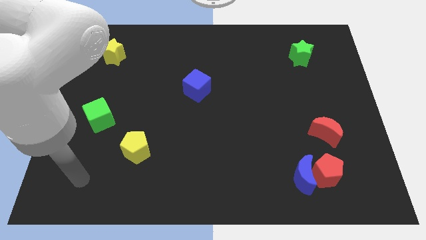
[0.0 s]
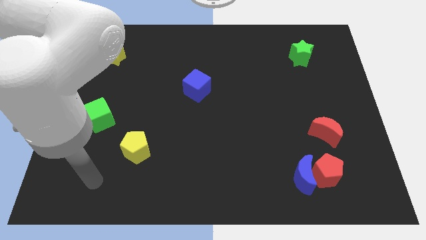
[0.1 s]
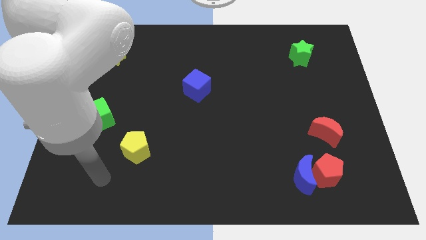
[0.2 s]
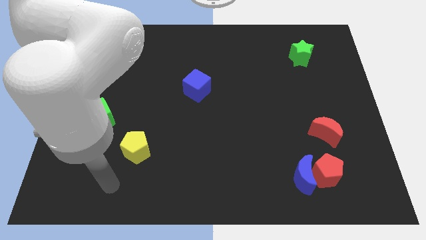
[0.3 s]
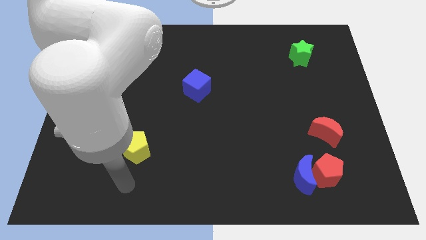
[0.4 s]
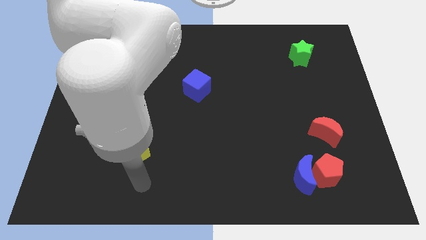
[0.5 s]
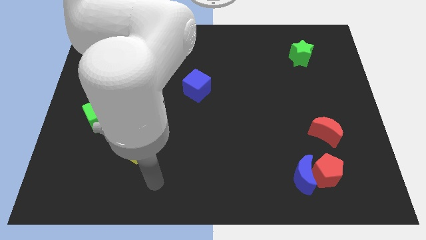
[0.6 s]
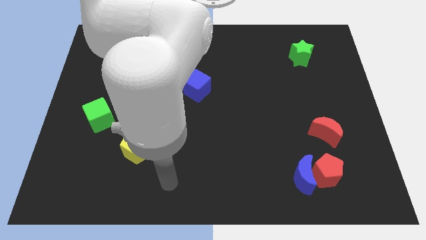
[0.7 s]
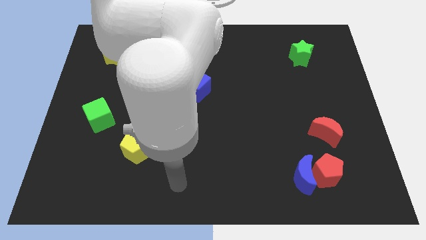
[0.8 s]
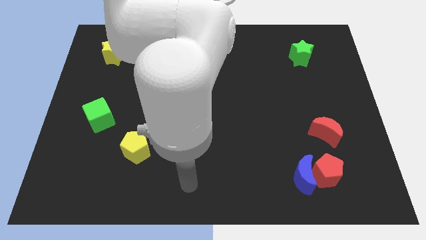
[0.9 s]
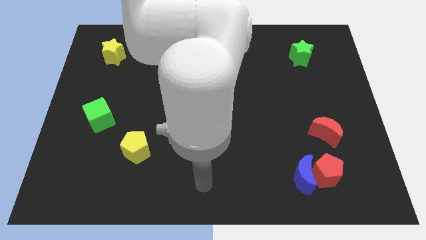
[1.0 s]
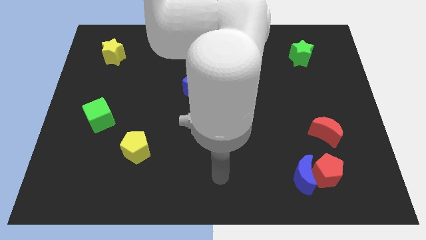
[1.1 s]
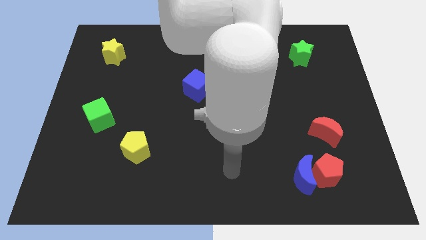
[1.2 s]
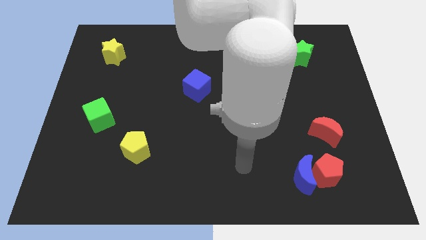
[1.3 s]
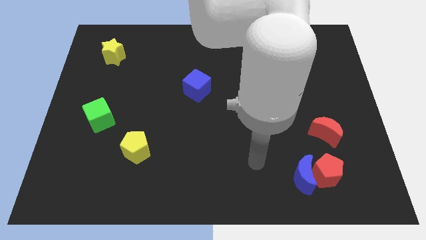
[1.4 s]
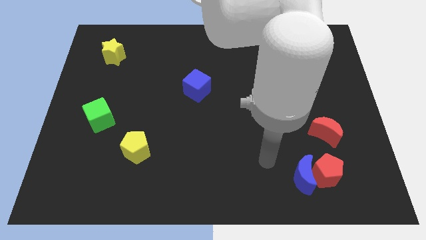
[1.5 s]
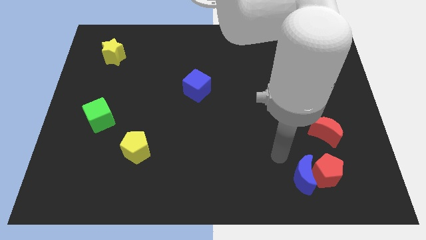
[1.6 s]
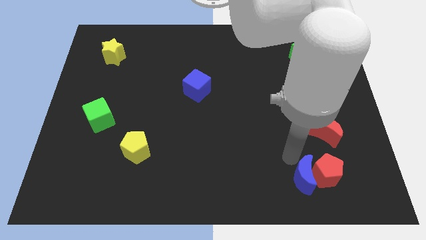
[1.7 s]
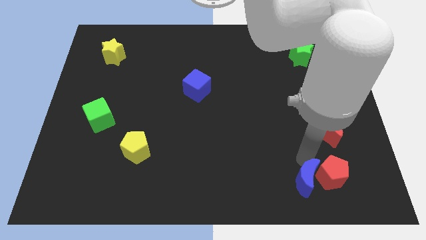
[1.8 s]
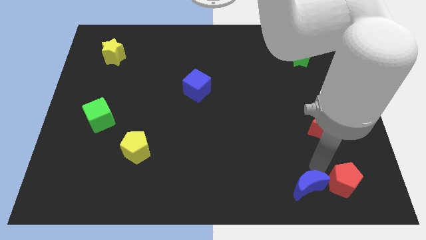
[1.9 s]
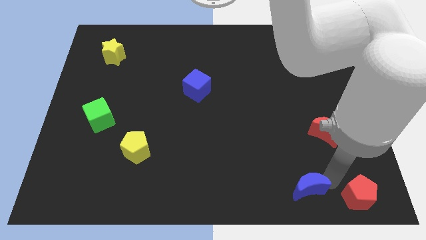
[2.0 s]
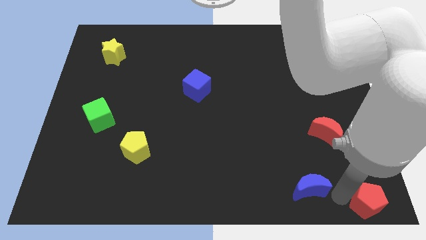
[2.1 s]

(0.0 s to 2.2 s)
separate the blue moon from the red pentagon

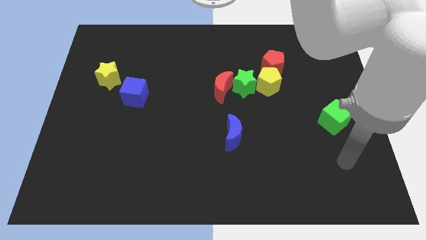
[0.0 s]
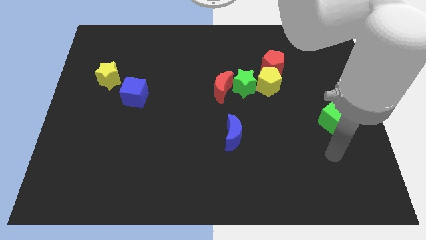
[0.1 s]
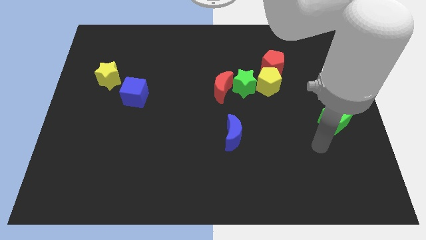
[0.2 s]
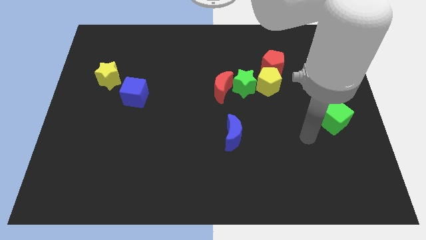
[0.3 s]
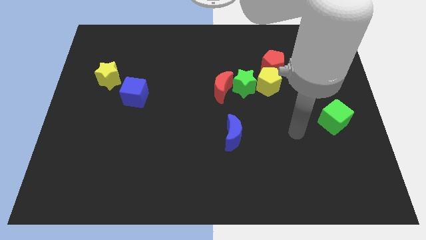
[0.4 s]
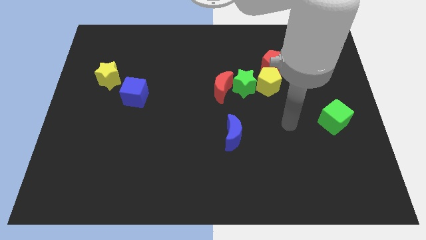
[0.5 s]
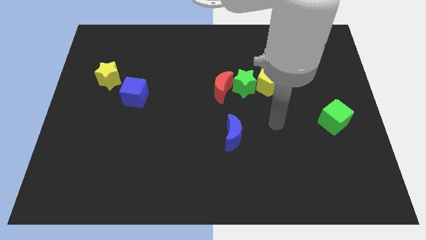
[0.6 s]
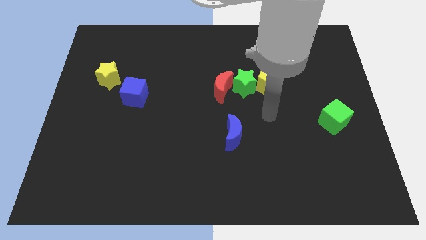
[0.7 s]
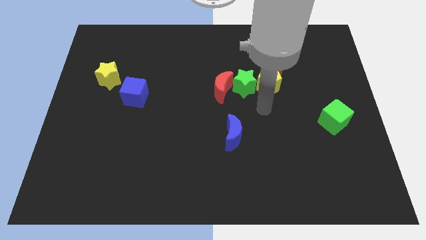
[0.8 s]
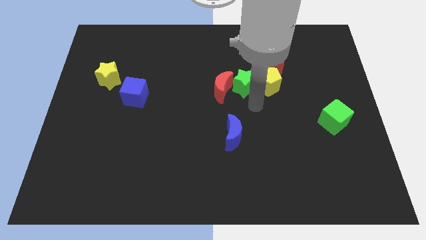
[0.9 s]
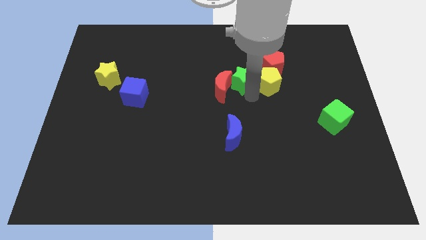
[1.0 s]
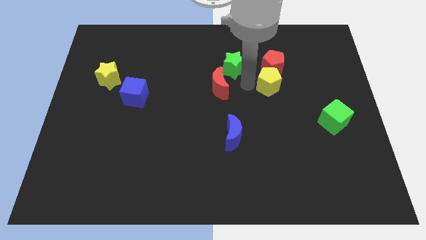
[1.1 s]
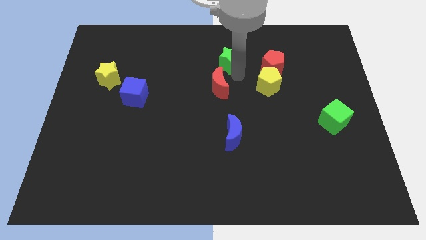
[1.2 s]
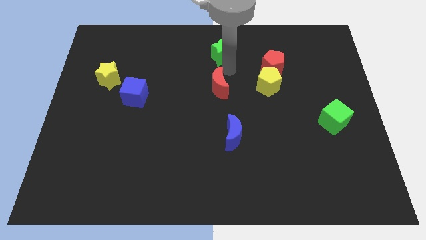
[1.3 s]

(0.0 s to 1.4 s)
pull the red moon apart from the green star

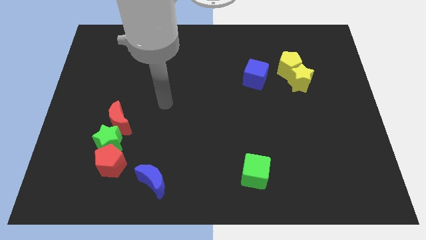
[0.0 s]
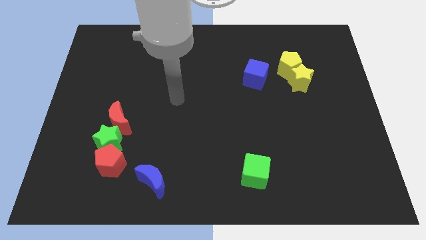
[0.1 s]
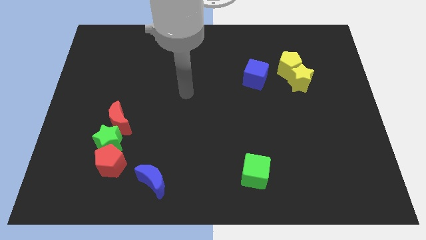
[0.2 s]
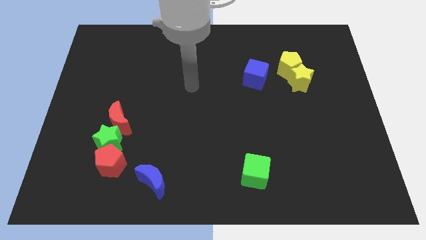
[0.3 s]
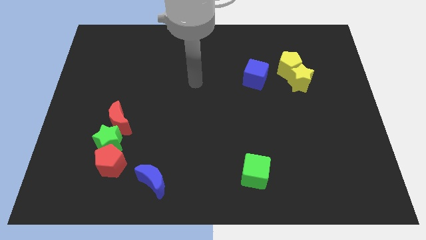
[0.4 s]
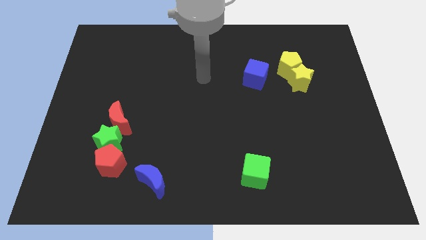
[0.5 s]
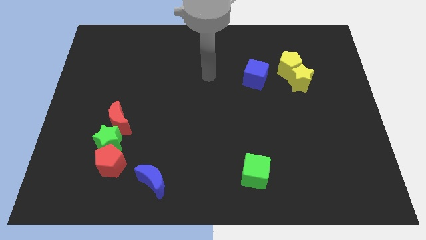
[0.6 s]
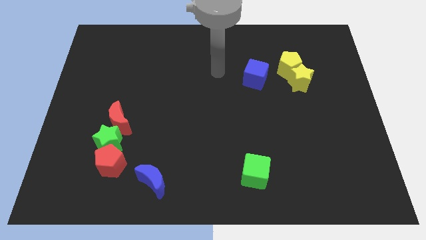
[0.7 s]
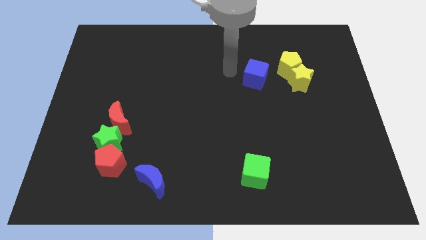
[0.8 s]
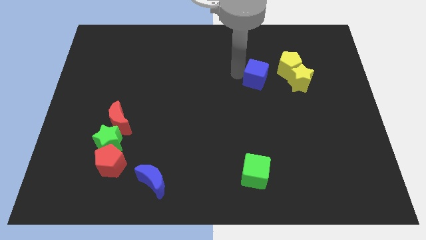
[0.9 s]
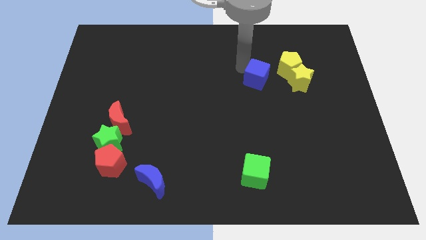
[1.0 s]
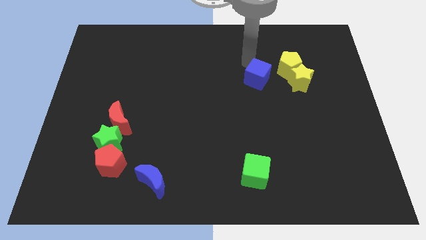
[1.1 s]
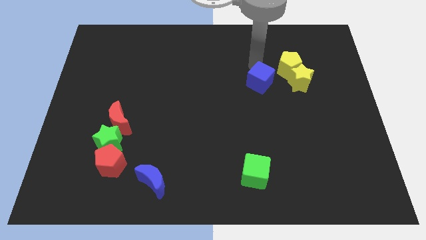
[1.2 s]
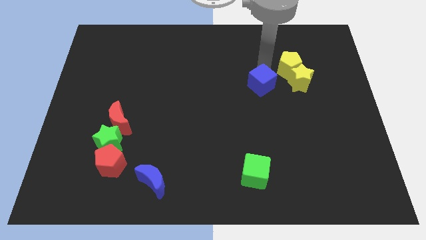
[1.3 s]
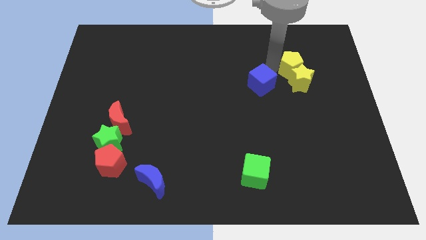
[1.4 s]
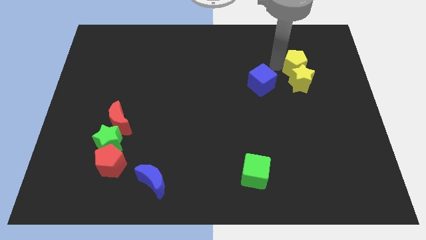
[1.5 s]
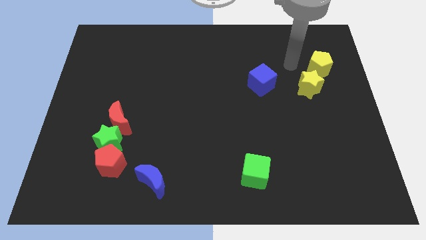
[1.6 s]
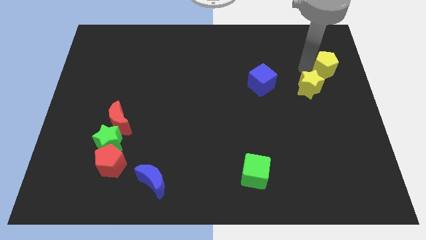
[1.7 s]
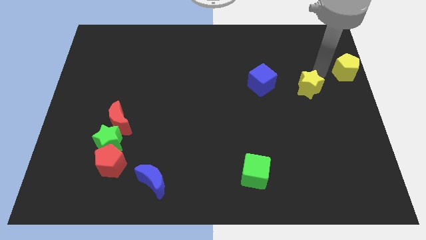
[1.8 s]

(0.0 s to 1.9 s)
move the yellow star away from the yellow pentagon

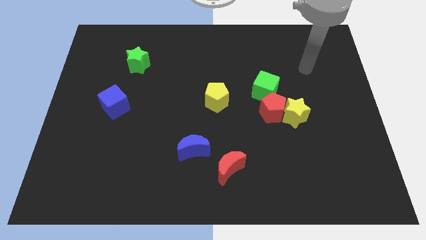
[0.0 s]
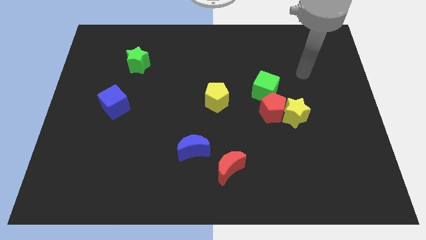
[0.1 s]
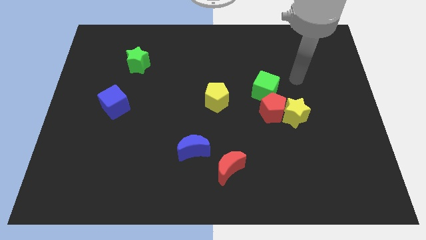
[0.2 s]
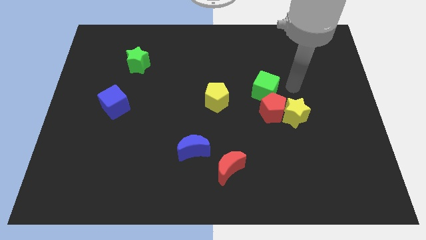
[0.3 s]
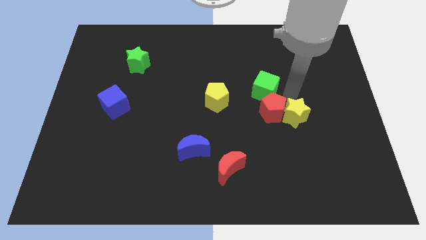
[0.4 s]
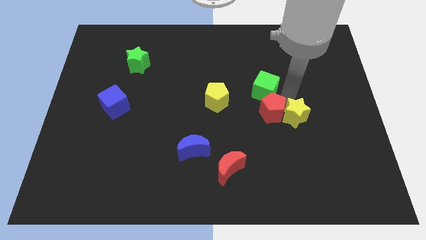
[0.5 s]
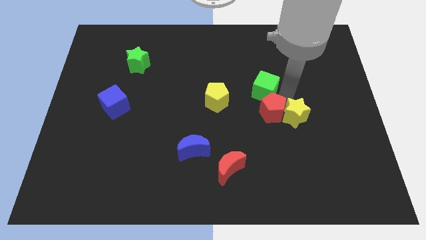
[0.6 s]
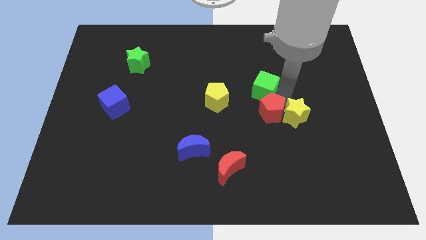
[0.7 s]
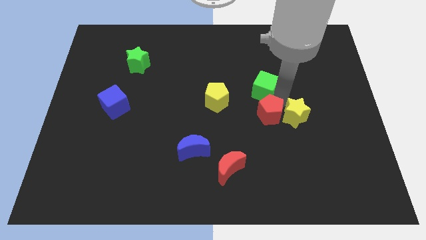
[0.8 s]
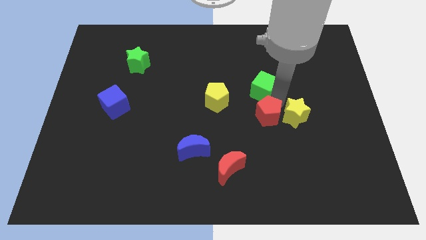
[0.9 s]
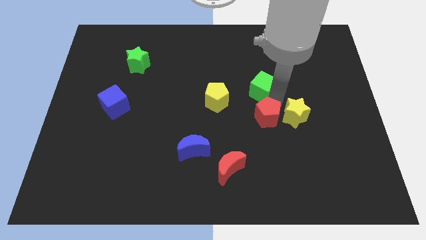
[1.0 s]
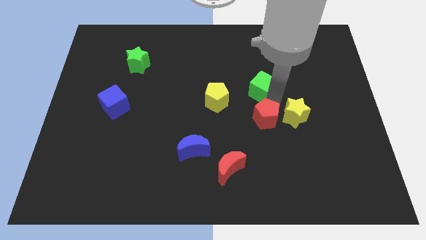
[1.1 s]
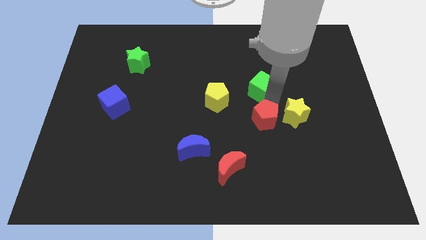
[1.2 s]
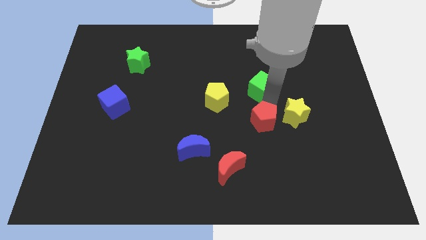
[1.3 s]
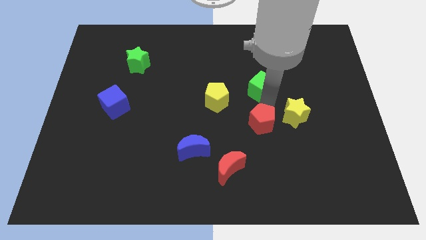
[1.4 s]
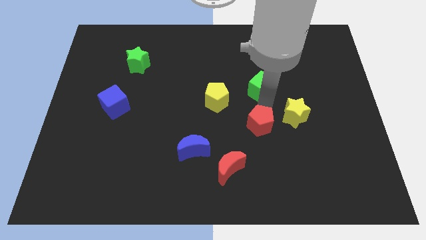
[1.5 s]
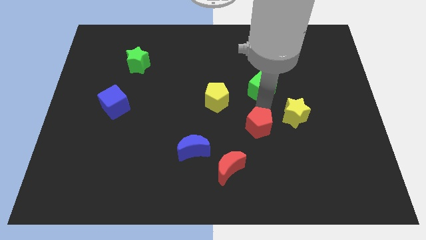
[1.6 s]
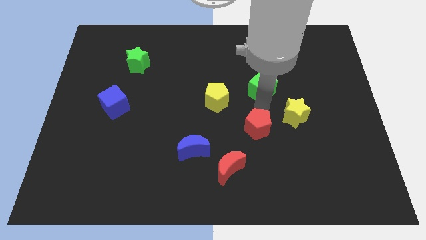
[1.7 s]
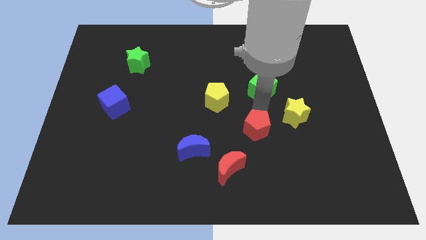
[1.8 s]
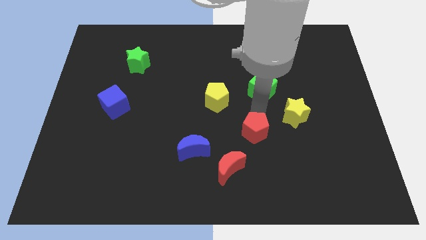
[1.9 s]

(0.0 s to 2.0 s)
move the red pentagon away from the yellow star and green cube

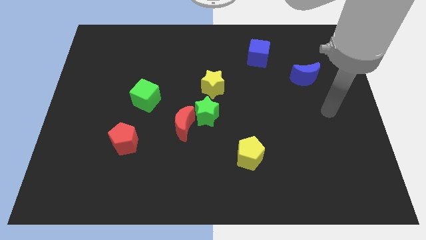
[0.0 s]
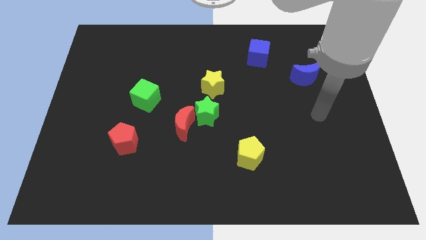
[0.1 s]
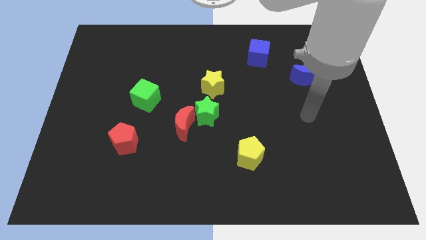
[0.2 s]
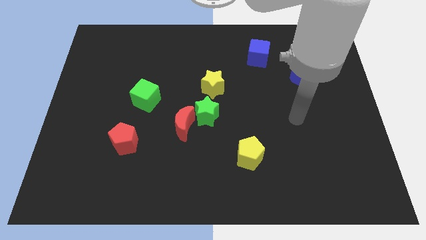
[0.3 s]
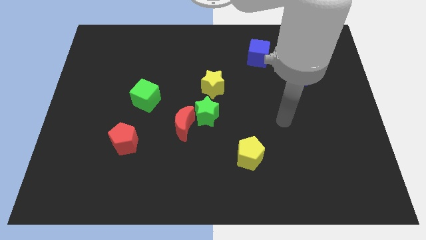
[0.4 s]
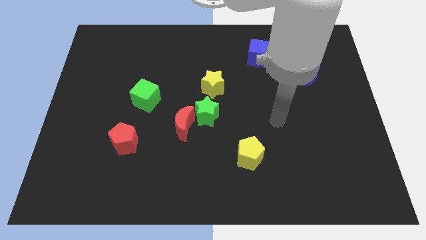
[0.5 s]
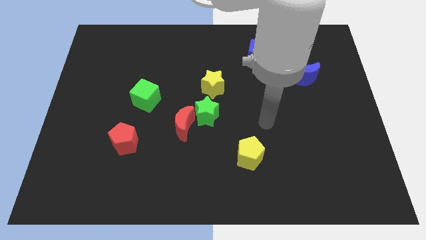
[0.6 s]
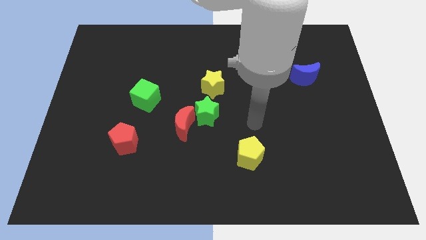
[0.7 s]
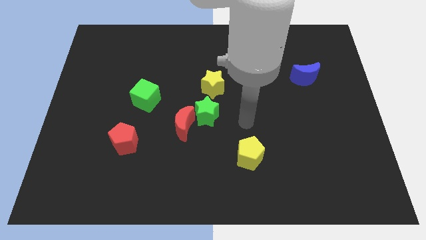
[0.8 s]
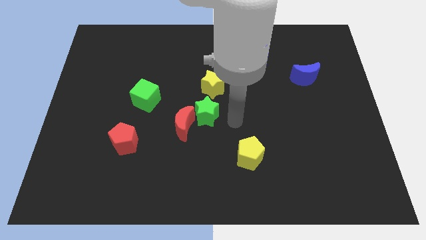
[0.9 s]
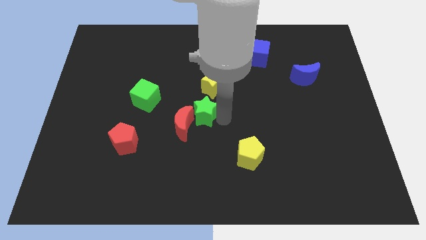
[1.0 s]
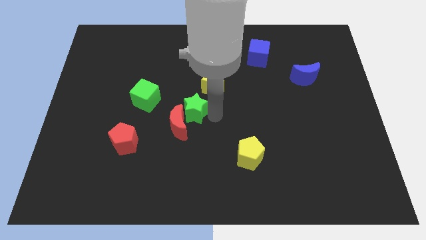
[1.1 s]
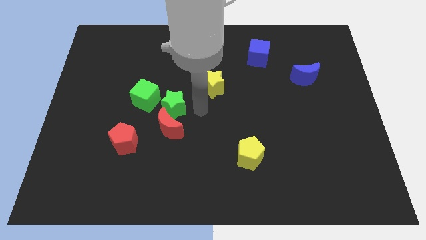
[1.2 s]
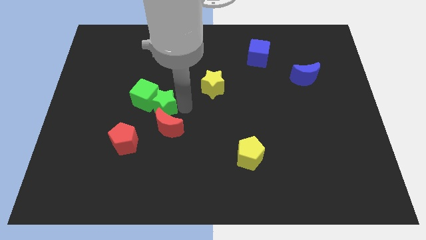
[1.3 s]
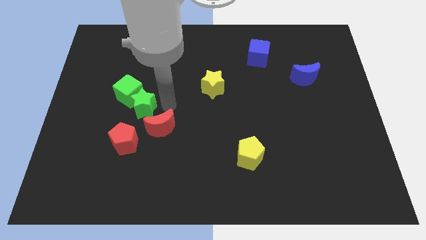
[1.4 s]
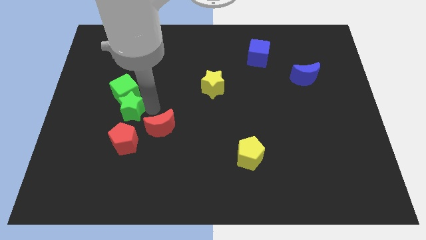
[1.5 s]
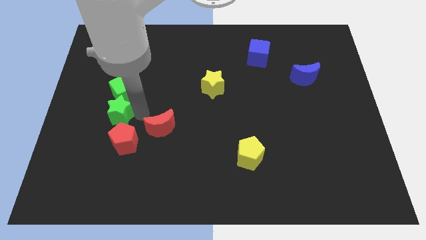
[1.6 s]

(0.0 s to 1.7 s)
move the red moon away from the green star
